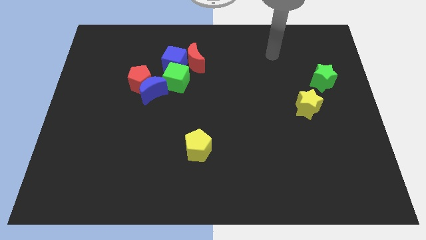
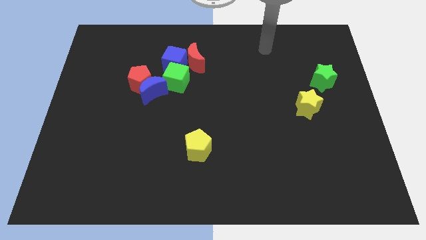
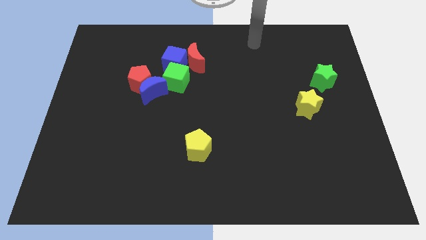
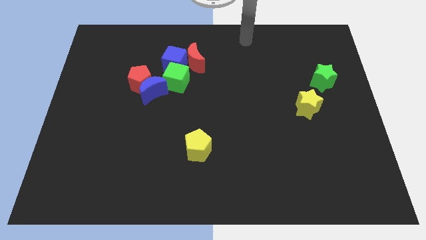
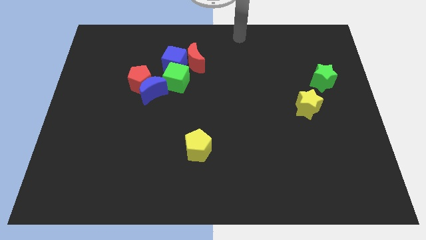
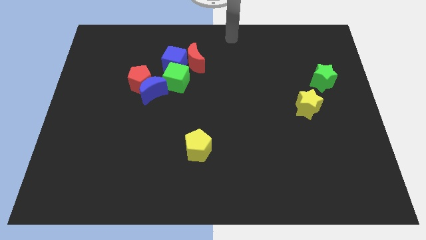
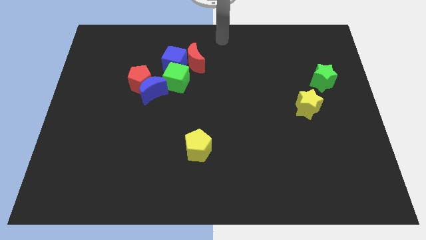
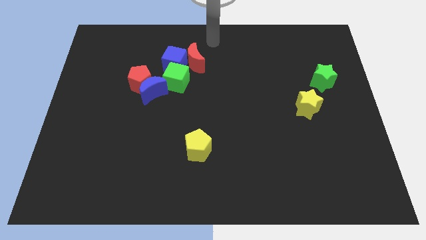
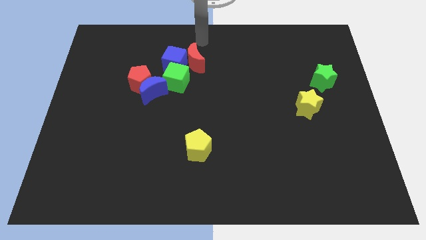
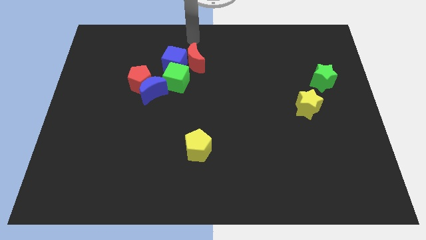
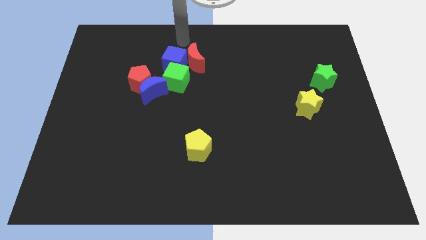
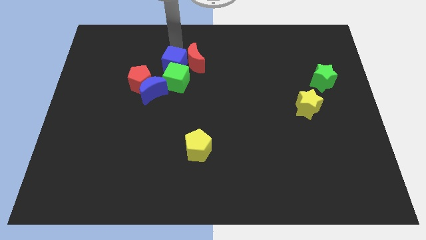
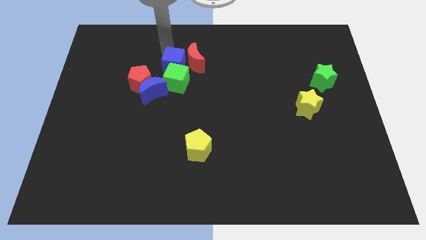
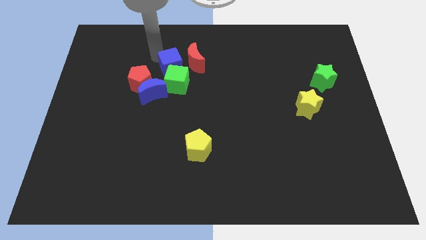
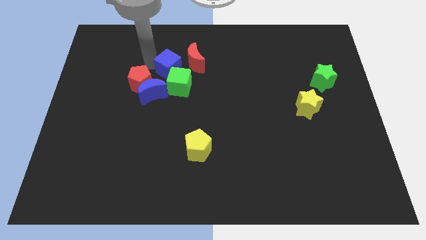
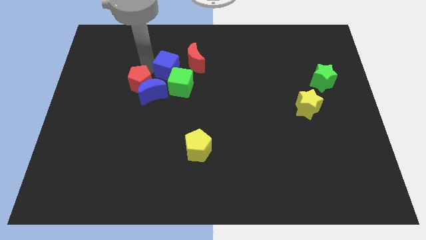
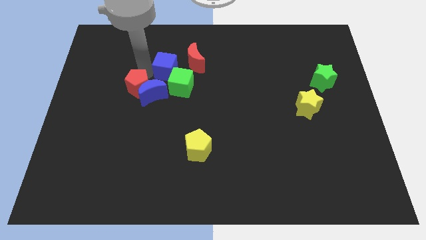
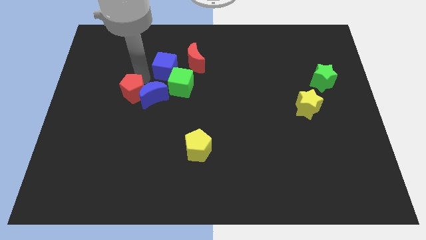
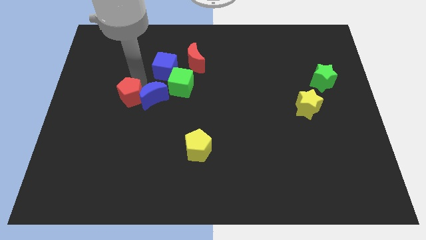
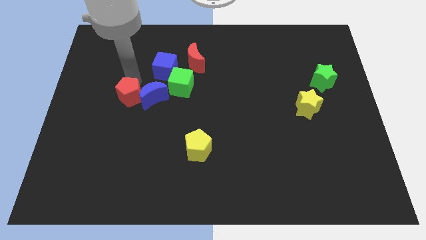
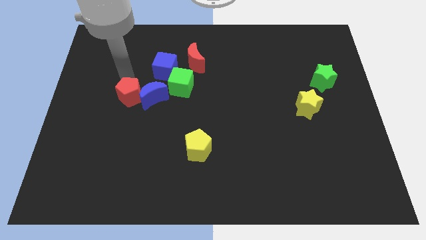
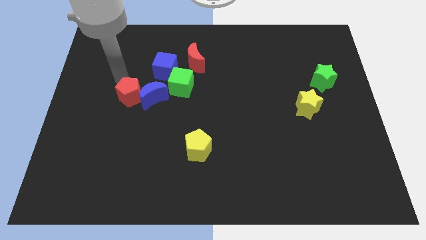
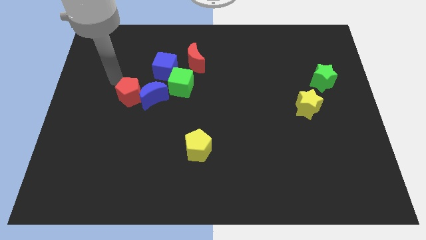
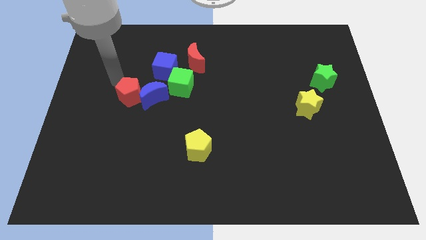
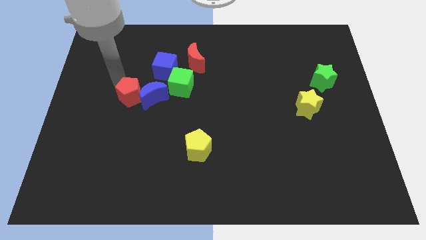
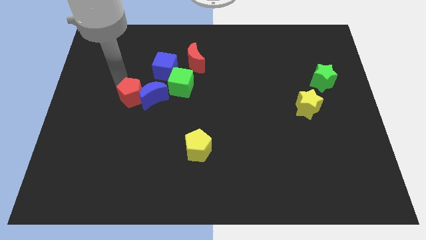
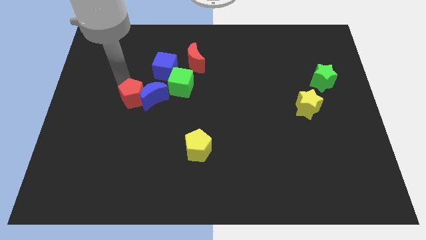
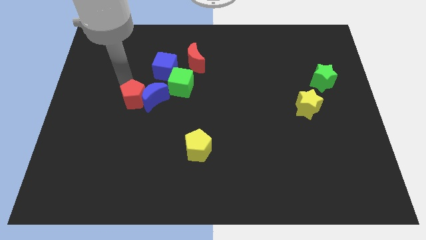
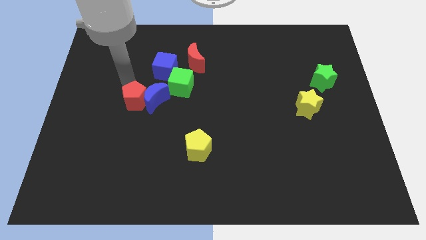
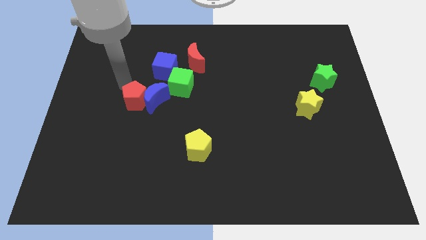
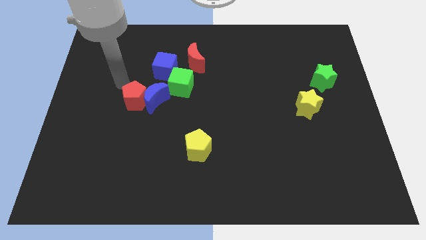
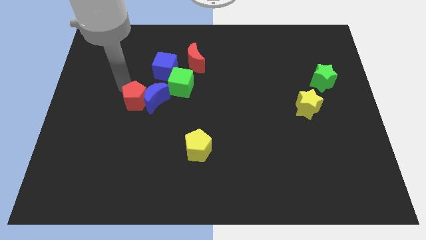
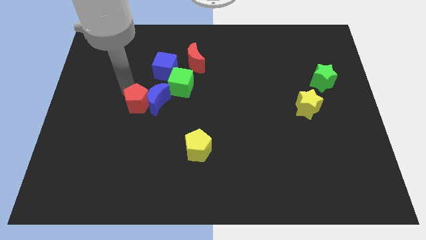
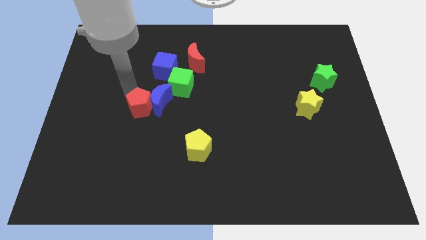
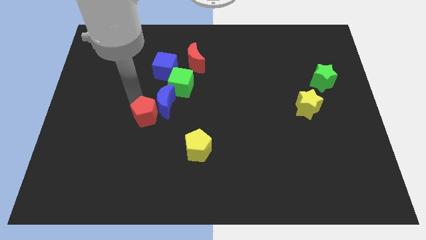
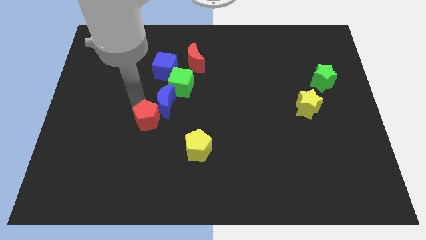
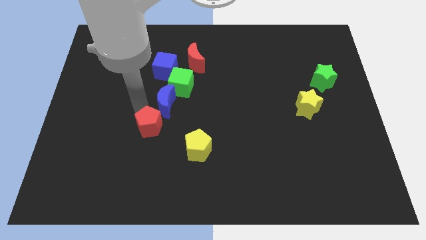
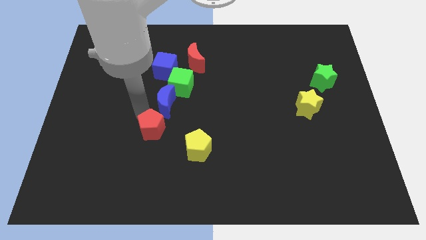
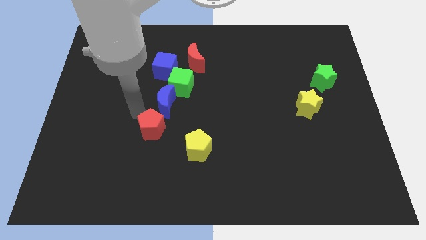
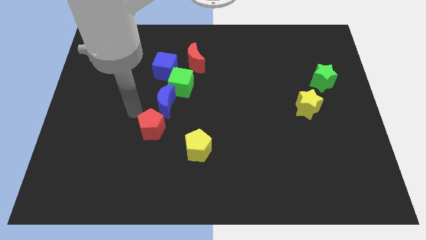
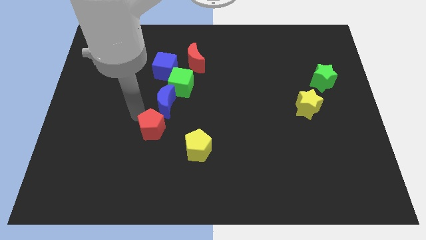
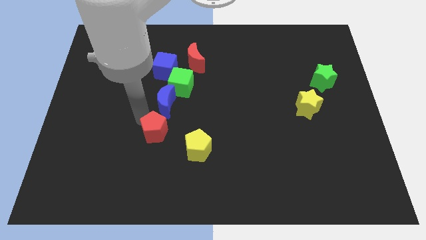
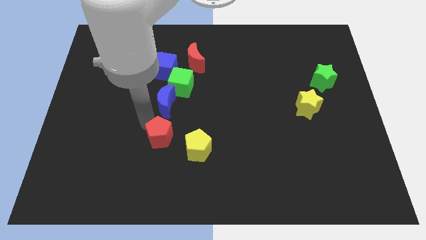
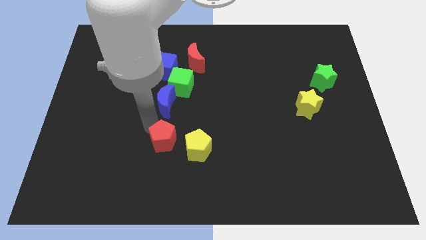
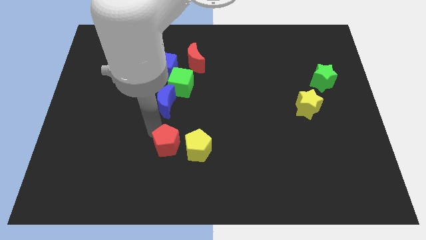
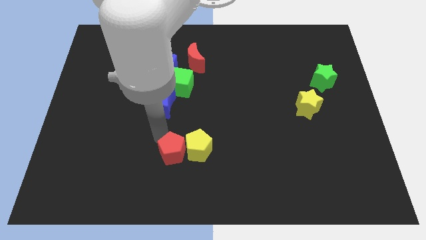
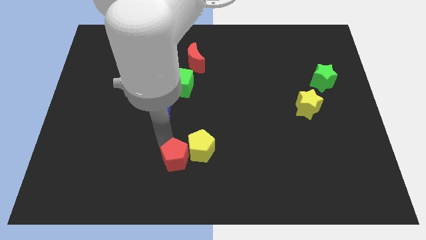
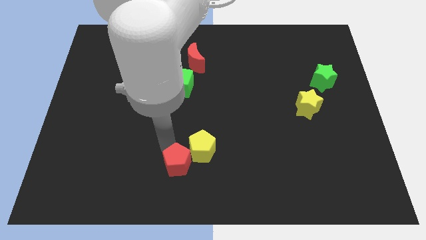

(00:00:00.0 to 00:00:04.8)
slide the red pentagon to the bottom side

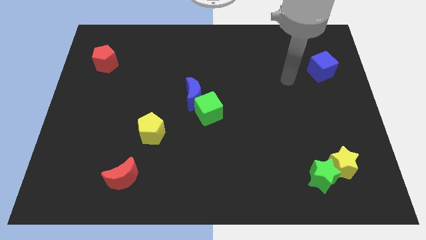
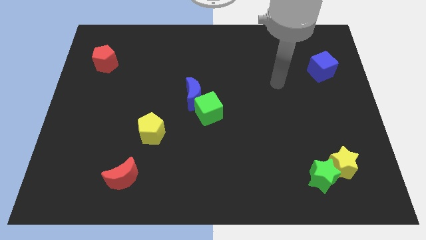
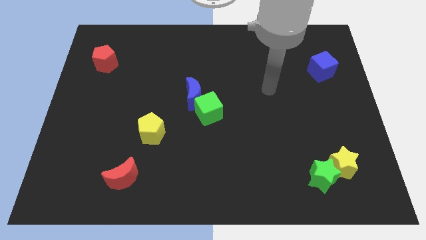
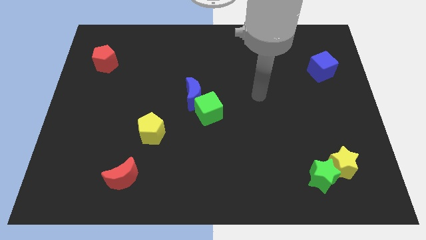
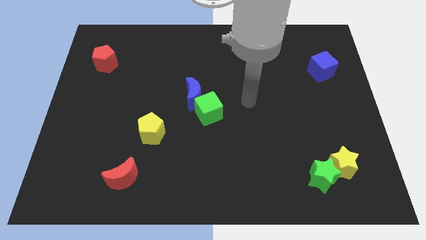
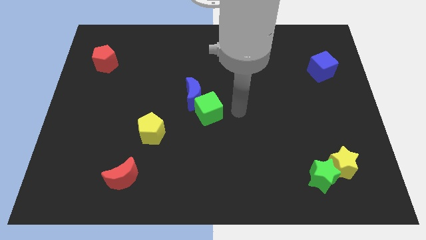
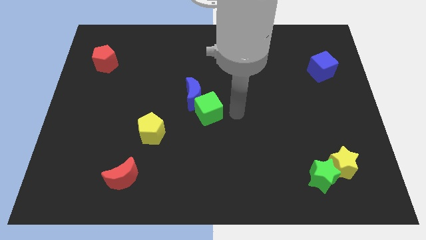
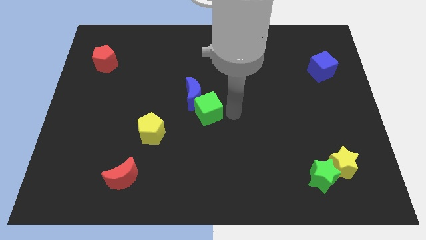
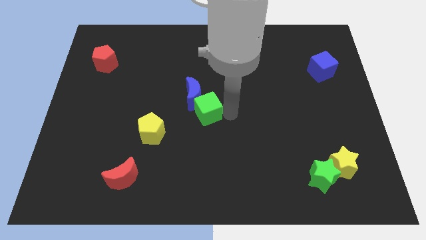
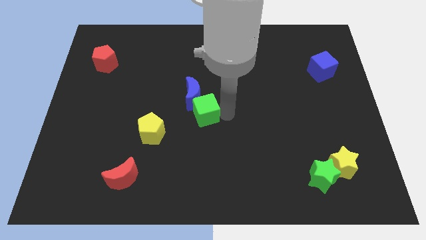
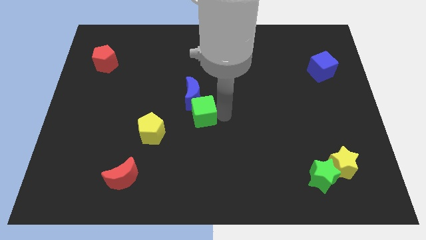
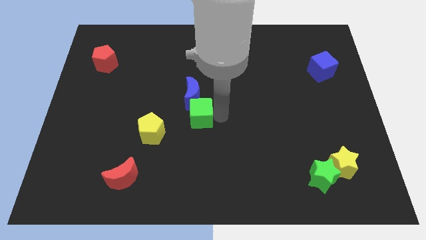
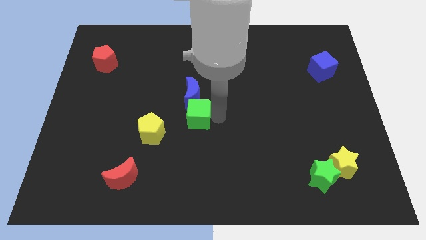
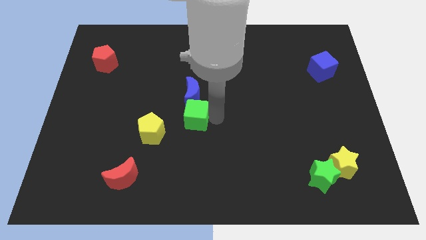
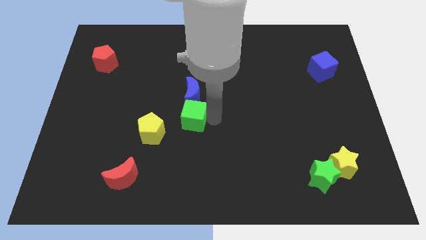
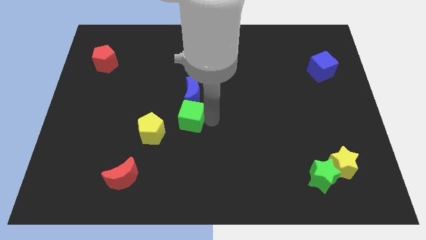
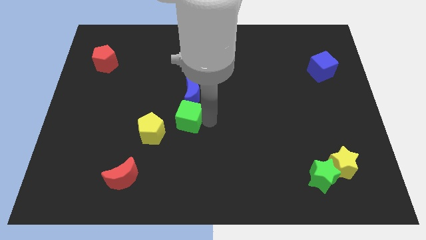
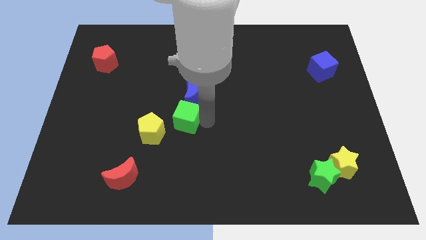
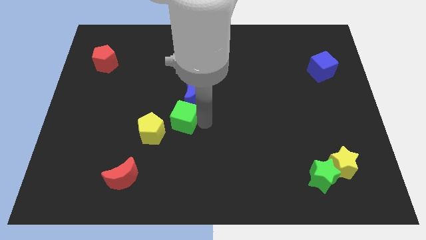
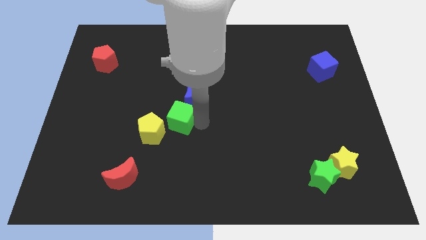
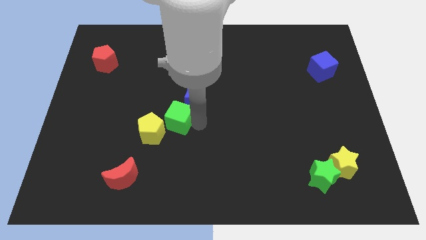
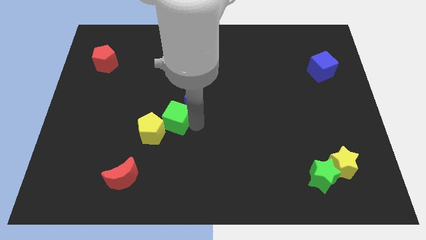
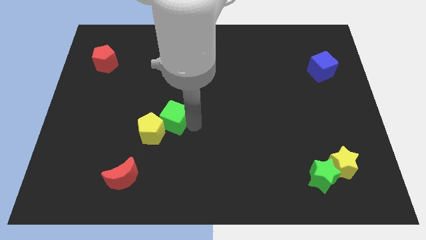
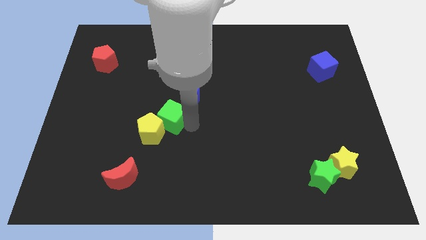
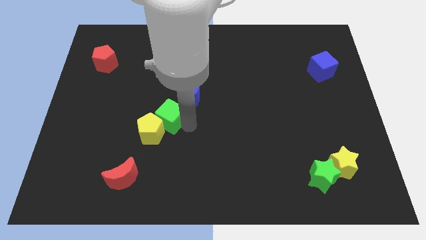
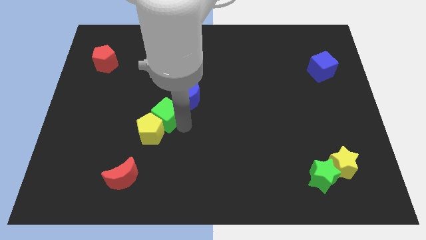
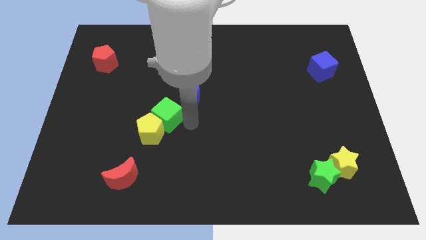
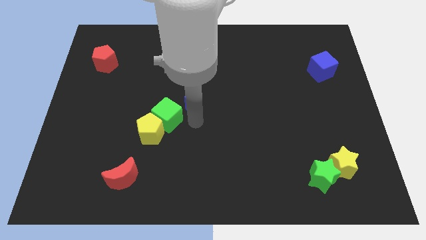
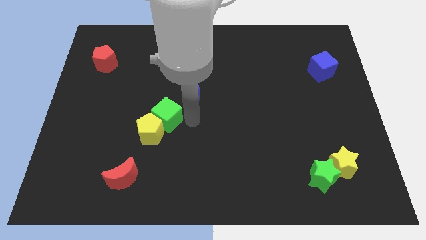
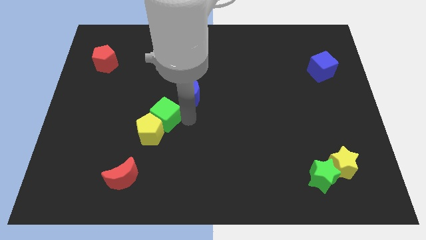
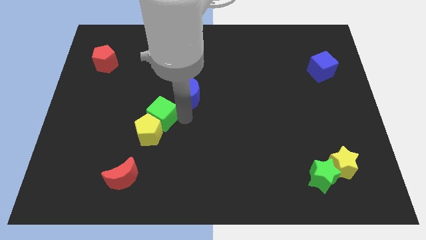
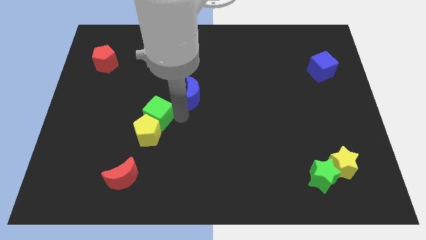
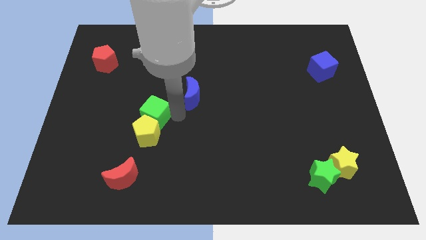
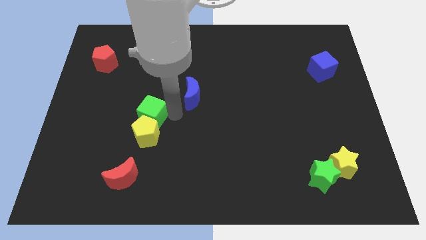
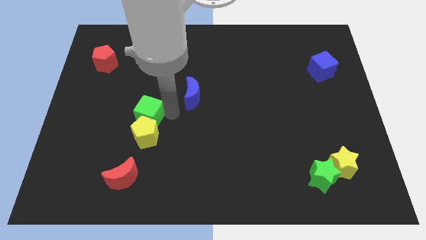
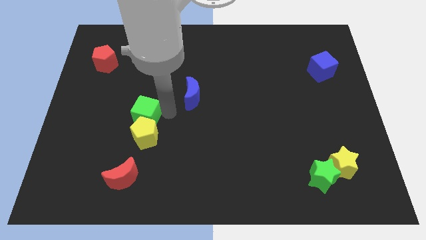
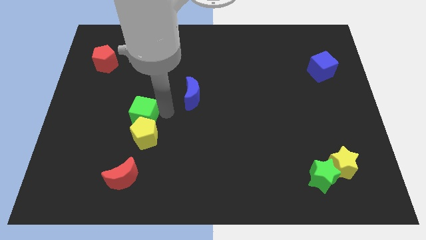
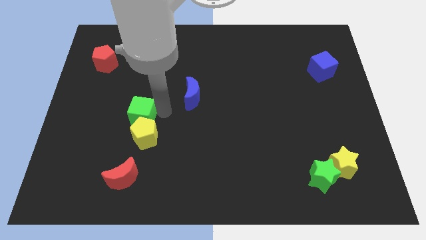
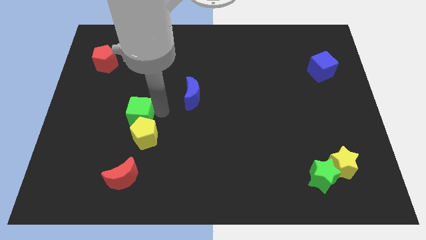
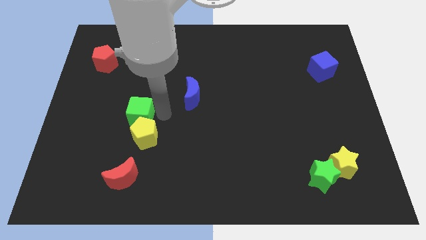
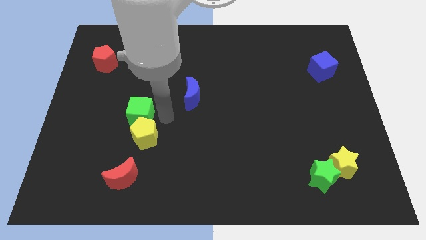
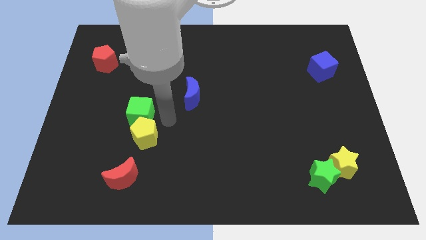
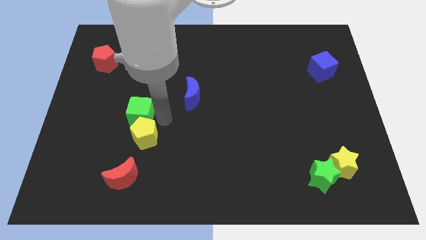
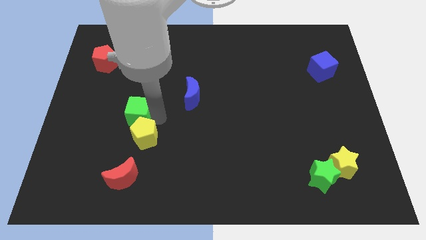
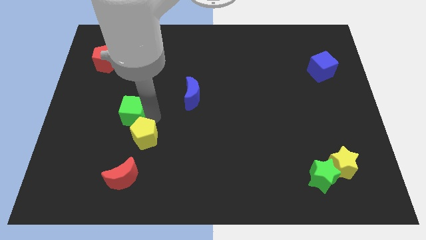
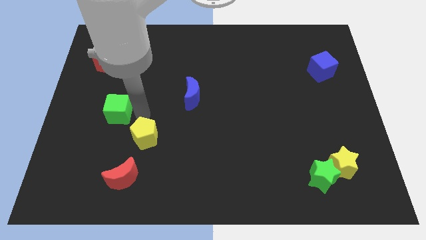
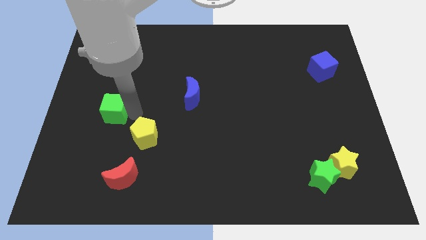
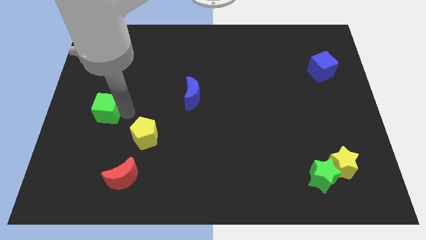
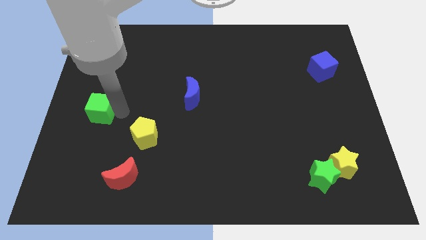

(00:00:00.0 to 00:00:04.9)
slide the green cube to the left side
